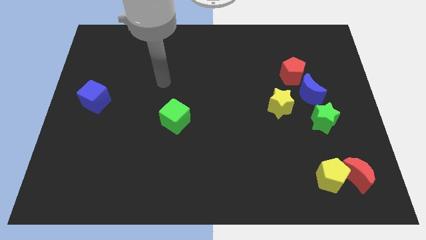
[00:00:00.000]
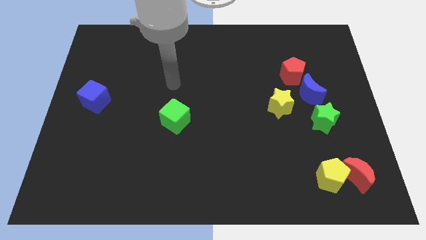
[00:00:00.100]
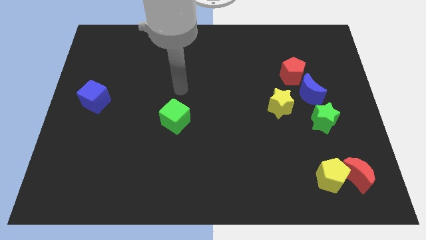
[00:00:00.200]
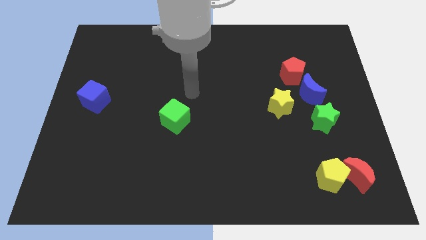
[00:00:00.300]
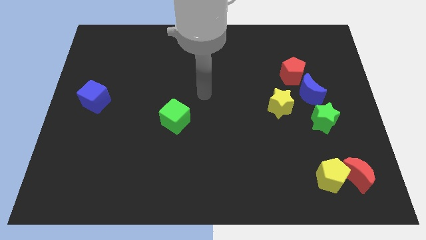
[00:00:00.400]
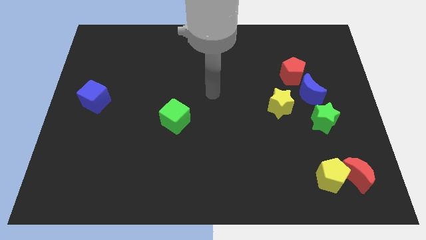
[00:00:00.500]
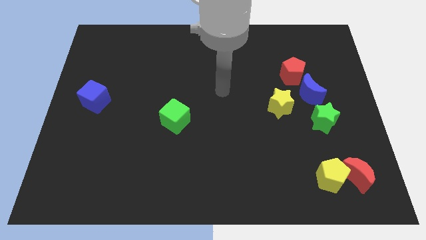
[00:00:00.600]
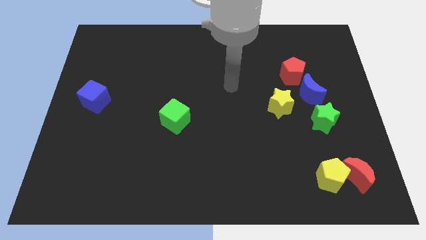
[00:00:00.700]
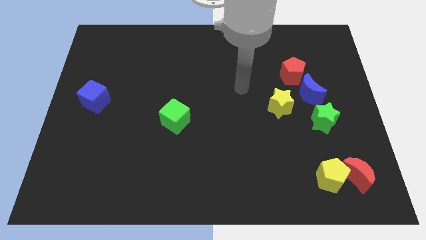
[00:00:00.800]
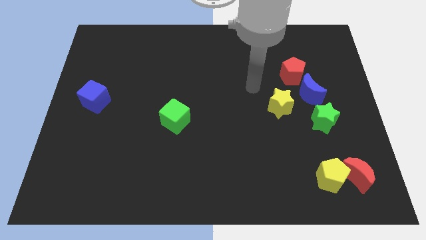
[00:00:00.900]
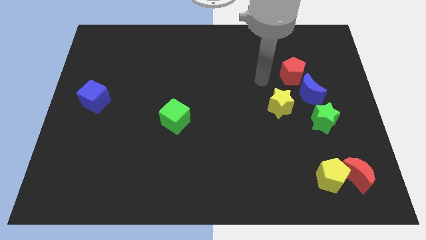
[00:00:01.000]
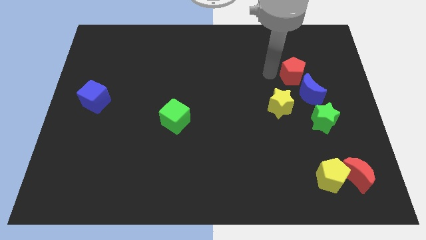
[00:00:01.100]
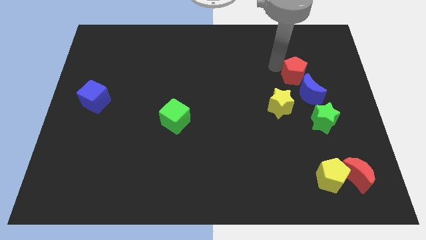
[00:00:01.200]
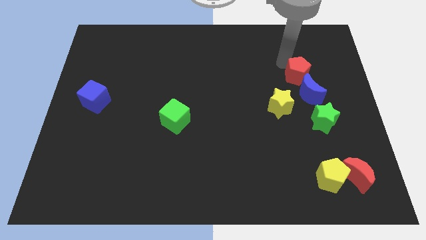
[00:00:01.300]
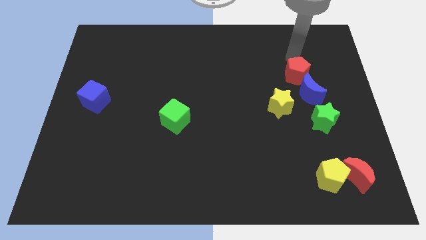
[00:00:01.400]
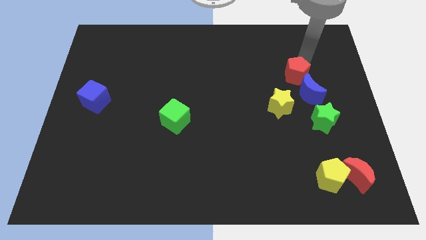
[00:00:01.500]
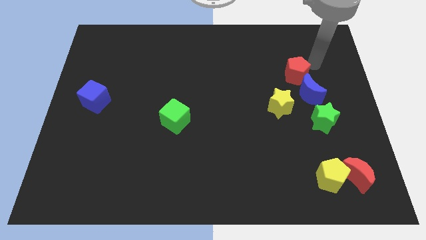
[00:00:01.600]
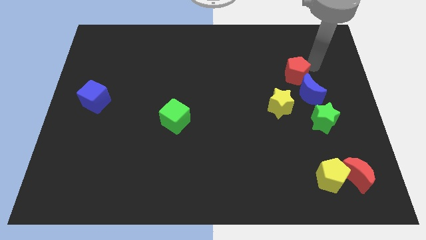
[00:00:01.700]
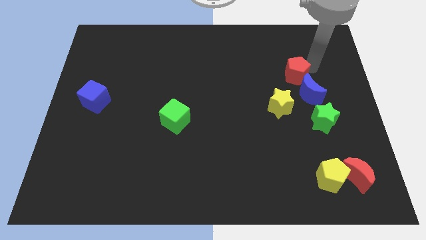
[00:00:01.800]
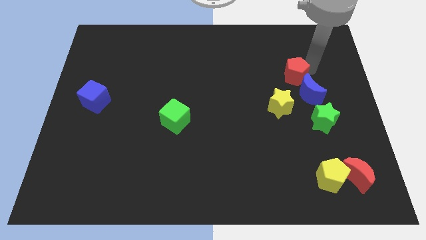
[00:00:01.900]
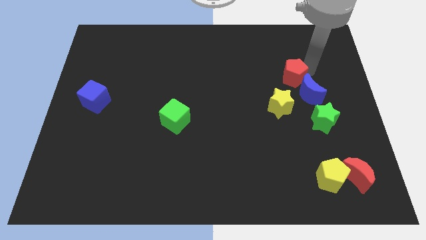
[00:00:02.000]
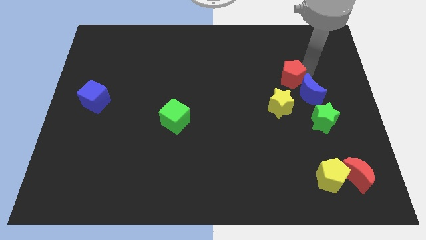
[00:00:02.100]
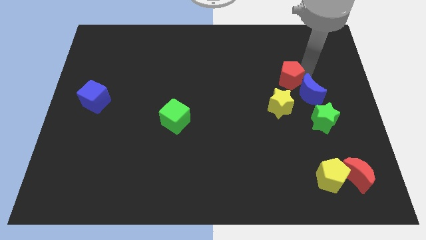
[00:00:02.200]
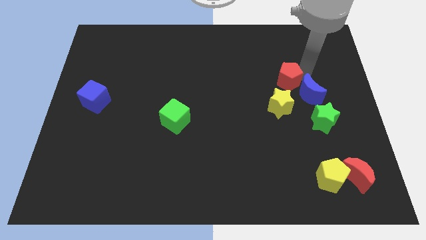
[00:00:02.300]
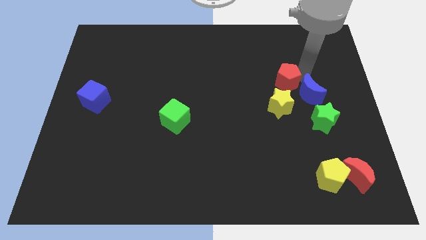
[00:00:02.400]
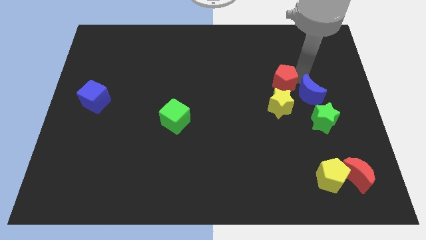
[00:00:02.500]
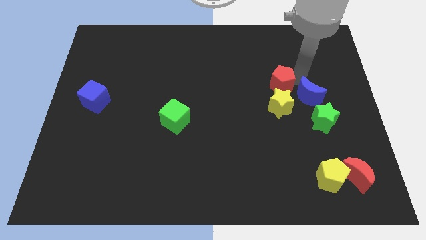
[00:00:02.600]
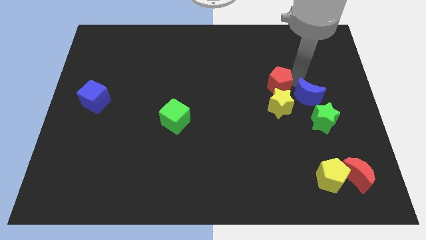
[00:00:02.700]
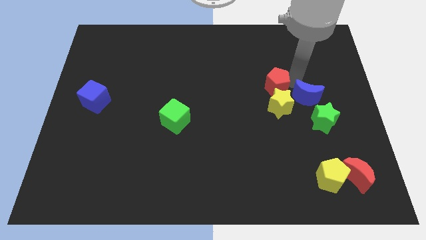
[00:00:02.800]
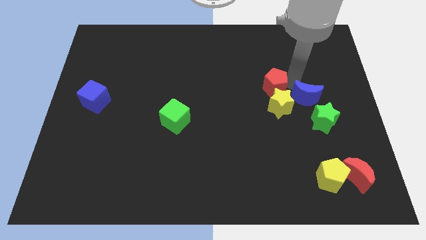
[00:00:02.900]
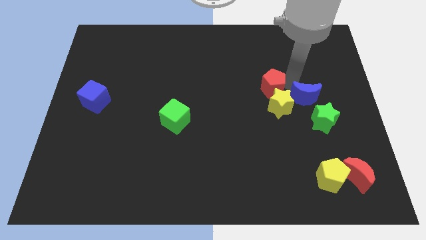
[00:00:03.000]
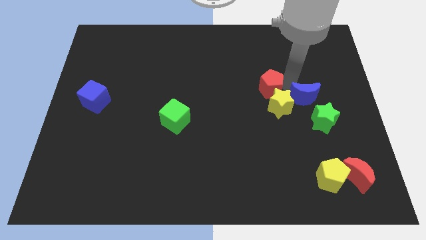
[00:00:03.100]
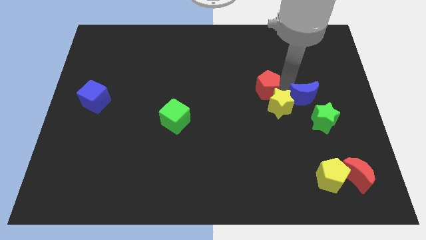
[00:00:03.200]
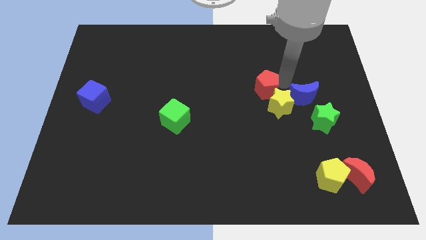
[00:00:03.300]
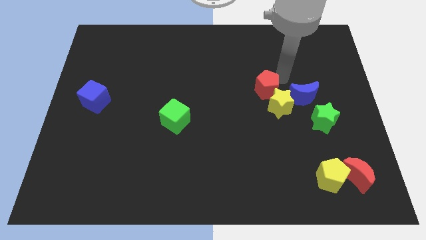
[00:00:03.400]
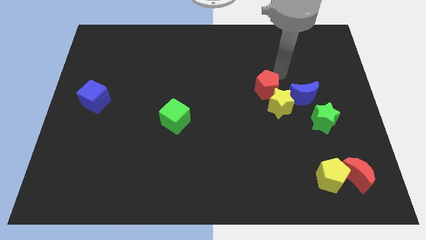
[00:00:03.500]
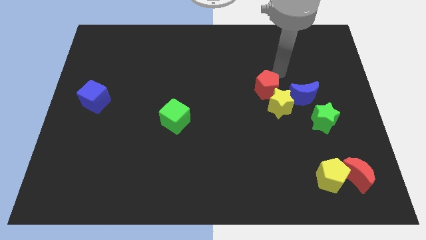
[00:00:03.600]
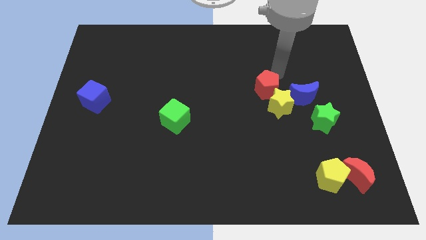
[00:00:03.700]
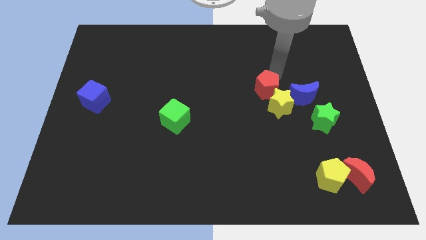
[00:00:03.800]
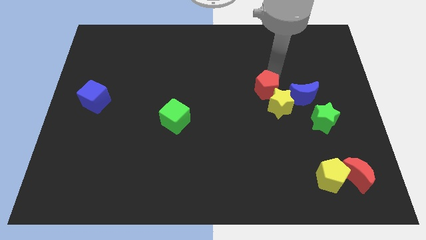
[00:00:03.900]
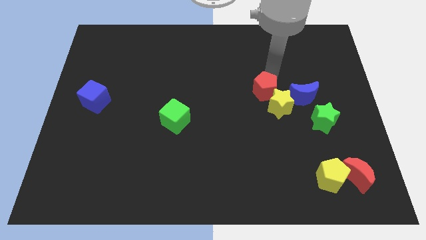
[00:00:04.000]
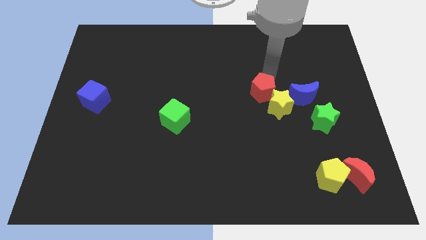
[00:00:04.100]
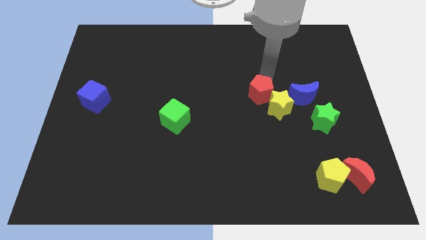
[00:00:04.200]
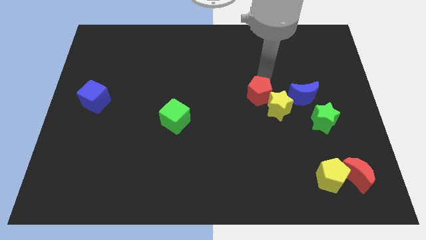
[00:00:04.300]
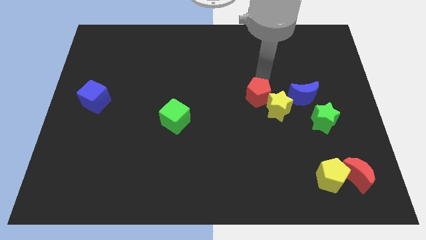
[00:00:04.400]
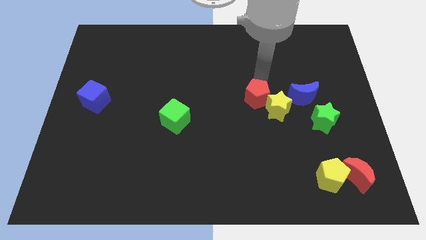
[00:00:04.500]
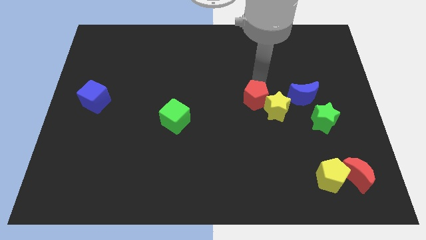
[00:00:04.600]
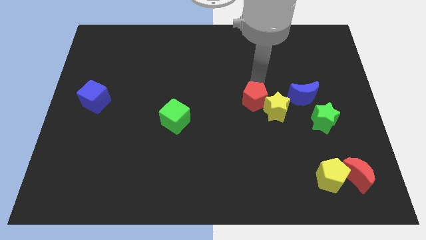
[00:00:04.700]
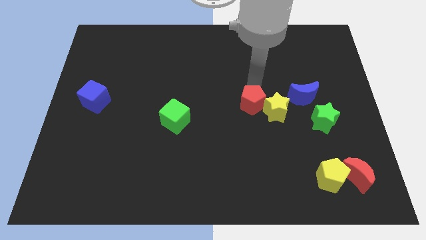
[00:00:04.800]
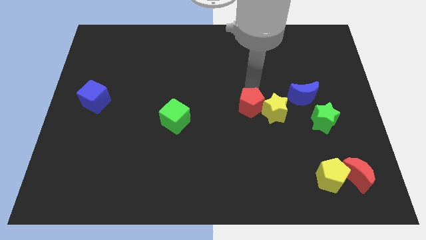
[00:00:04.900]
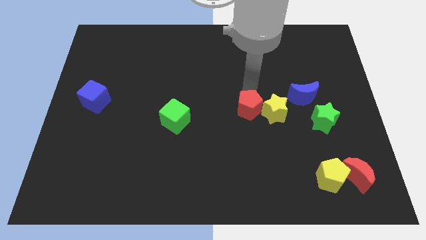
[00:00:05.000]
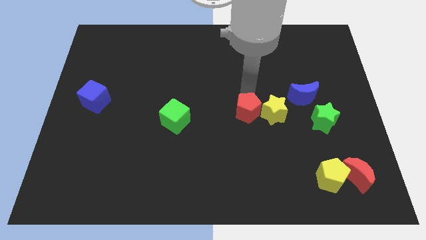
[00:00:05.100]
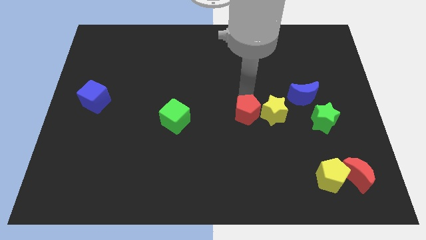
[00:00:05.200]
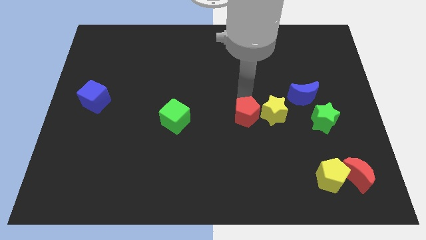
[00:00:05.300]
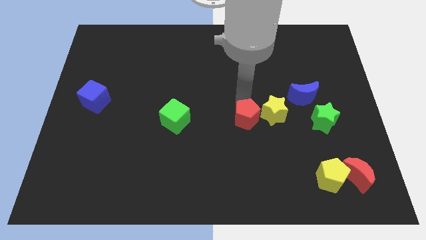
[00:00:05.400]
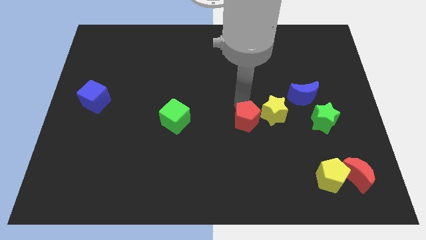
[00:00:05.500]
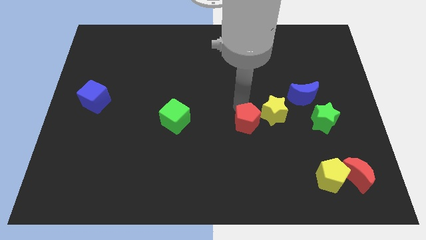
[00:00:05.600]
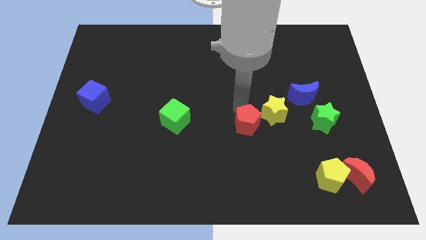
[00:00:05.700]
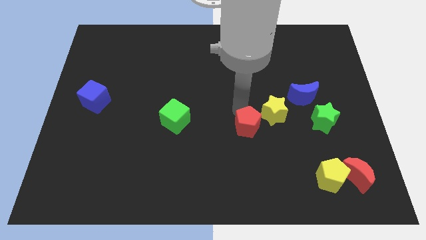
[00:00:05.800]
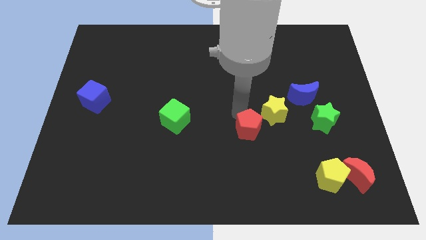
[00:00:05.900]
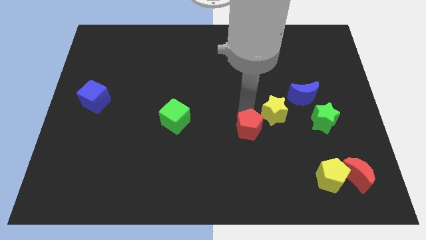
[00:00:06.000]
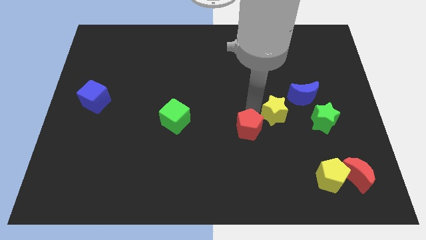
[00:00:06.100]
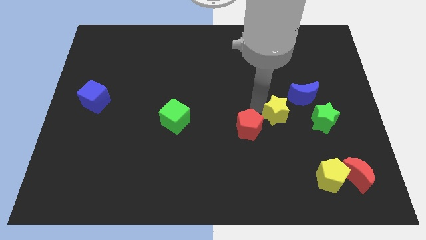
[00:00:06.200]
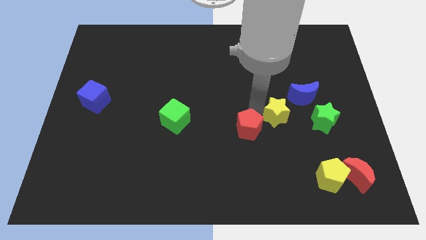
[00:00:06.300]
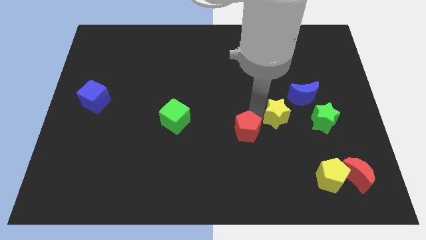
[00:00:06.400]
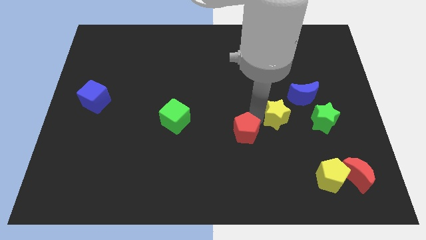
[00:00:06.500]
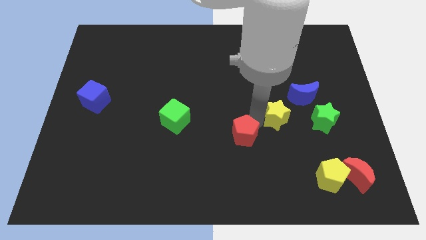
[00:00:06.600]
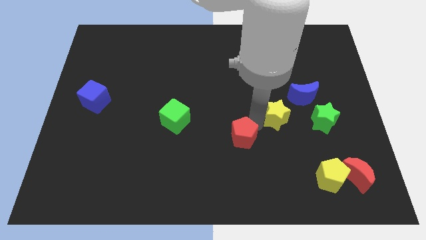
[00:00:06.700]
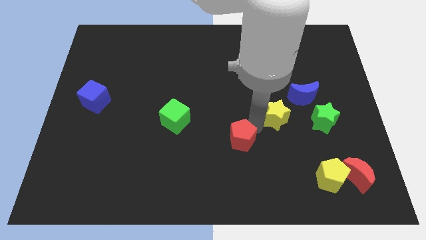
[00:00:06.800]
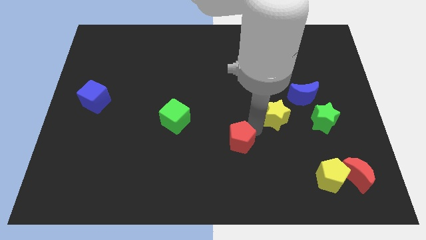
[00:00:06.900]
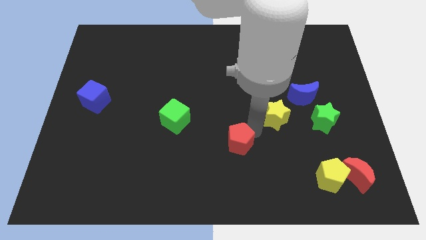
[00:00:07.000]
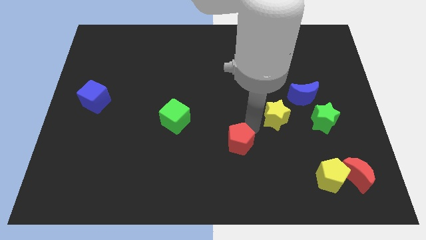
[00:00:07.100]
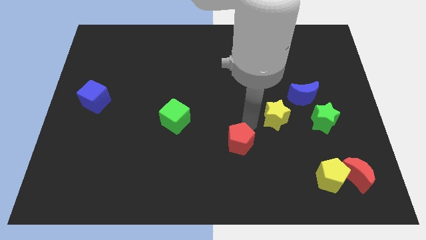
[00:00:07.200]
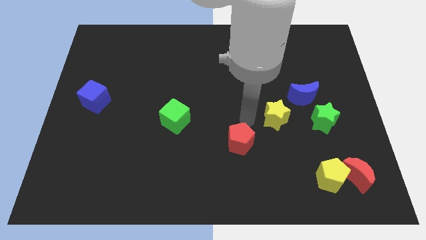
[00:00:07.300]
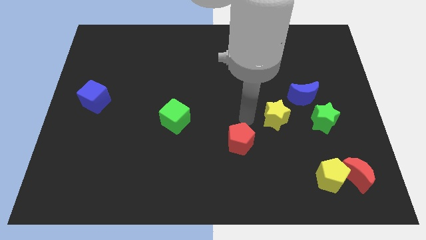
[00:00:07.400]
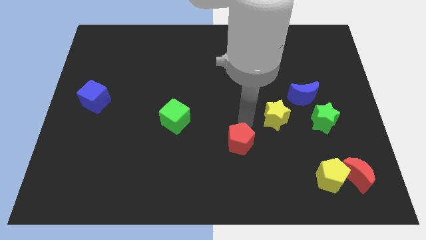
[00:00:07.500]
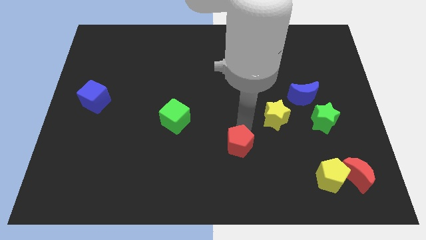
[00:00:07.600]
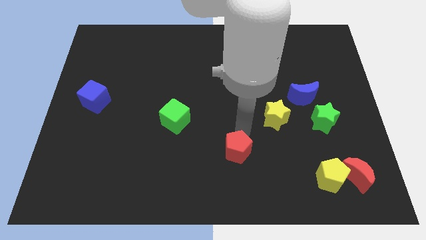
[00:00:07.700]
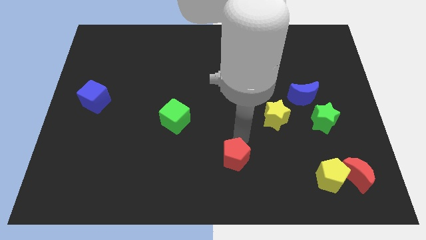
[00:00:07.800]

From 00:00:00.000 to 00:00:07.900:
put the red pentagon to the bottom
